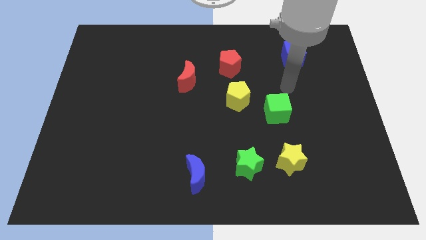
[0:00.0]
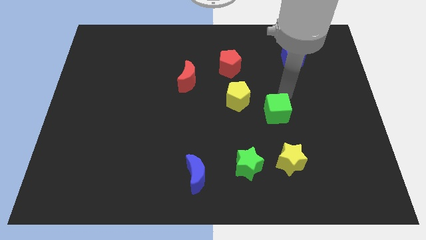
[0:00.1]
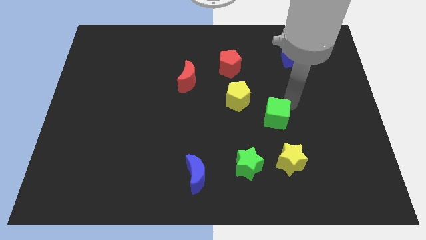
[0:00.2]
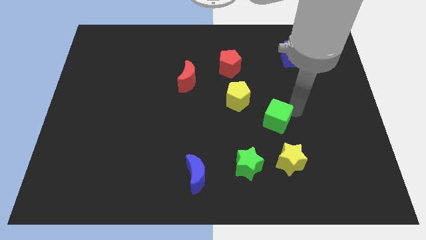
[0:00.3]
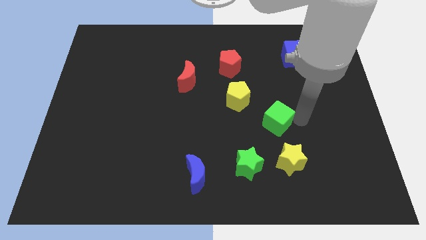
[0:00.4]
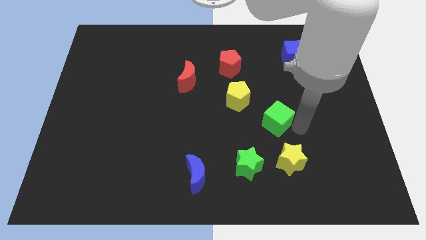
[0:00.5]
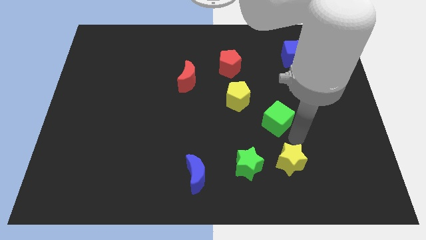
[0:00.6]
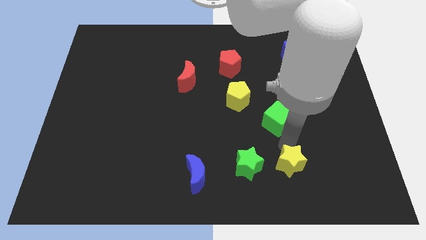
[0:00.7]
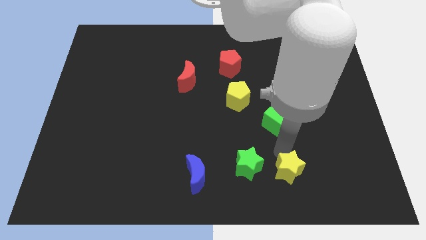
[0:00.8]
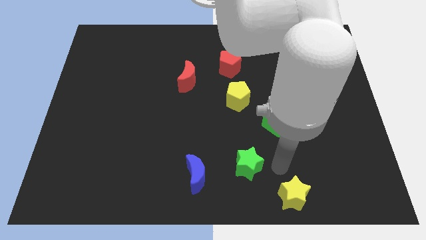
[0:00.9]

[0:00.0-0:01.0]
pull the green star apart from the yellow star

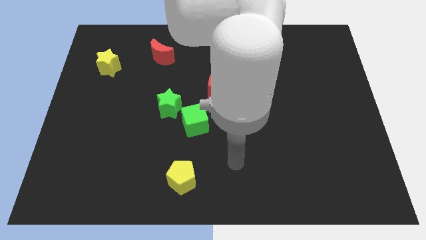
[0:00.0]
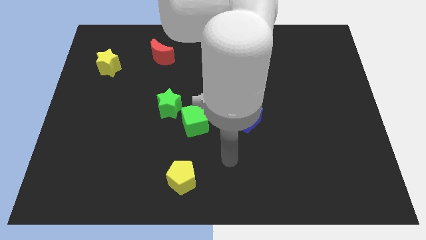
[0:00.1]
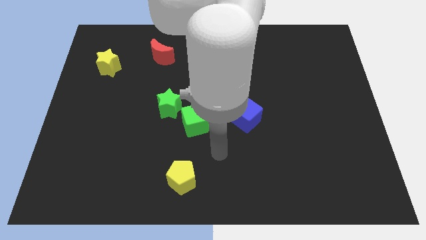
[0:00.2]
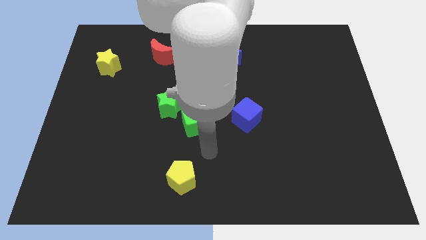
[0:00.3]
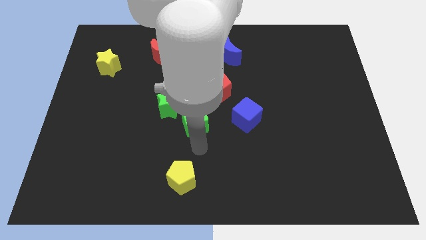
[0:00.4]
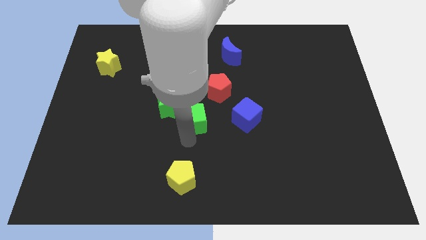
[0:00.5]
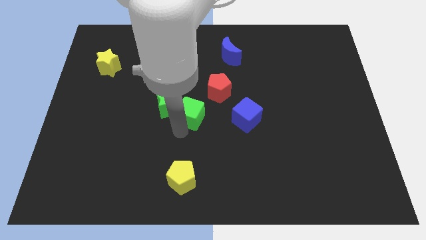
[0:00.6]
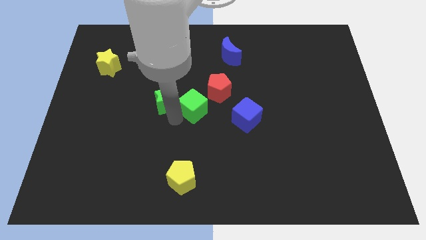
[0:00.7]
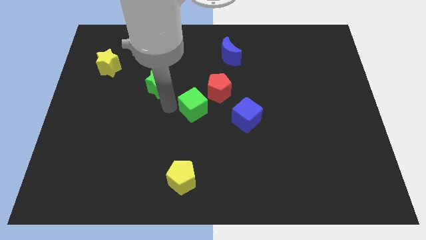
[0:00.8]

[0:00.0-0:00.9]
move the green cube away from the green star

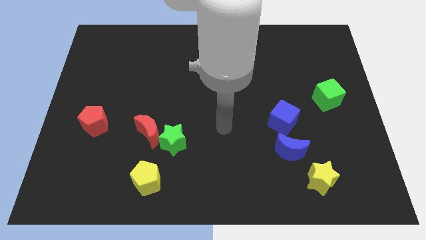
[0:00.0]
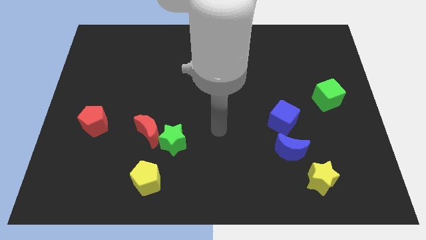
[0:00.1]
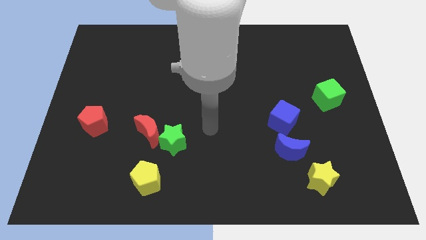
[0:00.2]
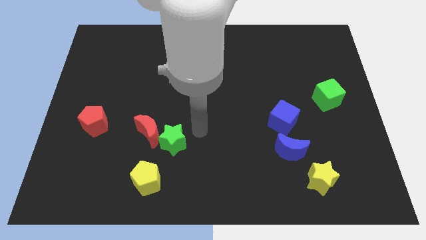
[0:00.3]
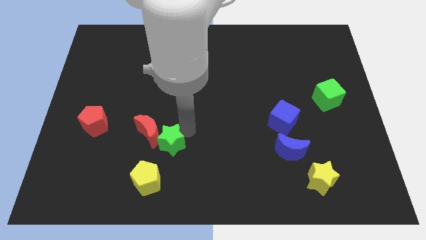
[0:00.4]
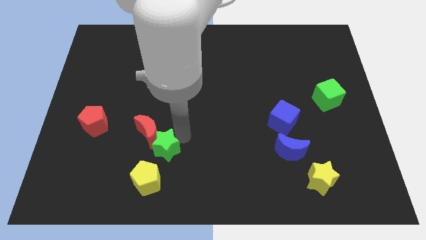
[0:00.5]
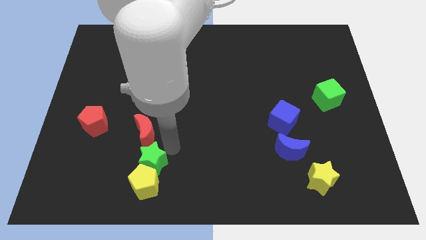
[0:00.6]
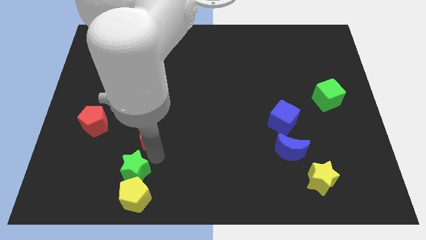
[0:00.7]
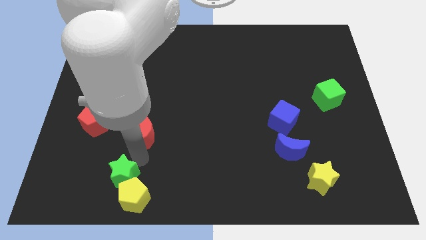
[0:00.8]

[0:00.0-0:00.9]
move the red moon away from the green star

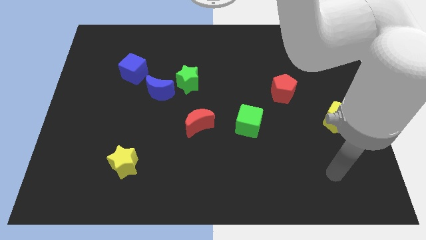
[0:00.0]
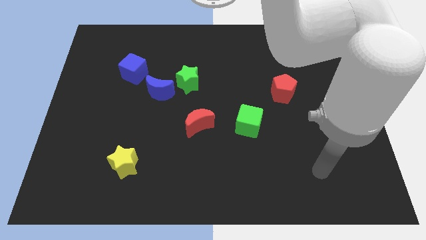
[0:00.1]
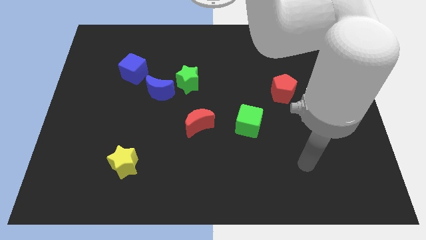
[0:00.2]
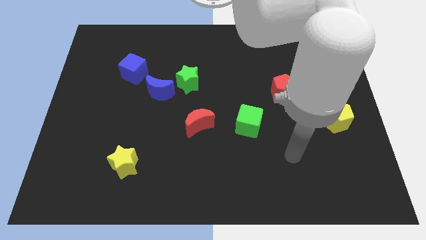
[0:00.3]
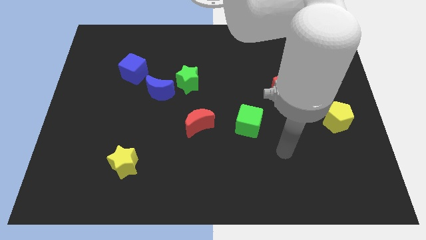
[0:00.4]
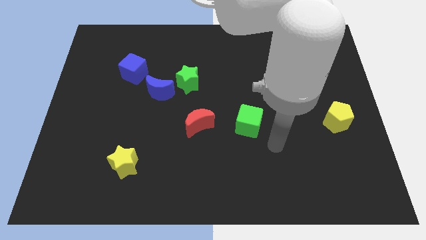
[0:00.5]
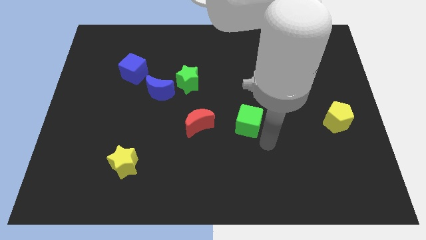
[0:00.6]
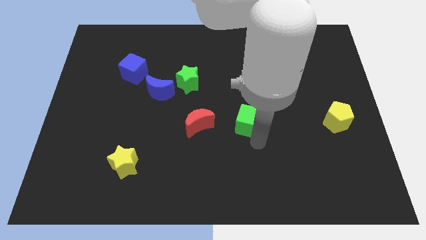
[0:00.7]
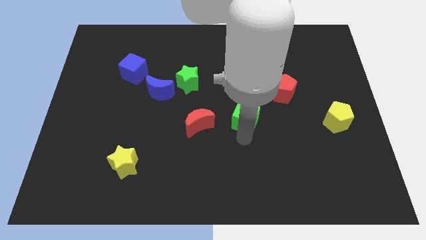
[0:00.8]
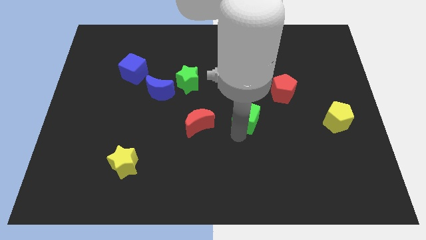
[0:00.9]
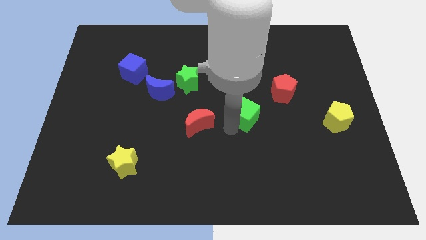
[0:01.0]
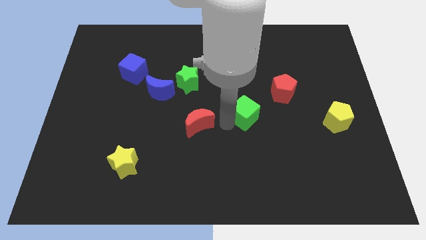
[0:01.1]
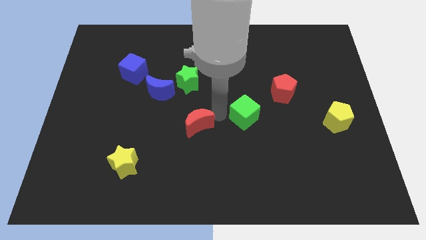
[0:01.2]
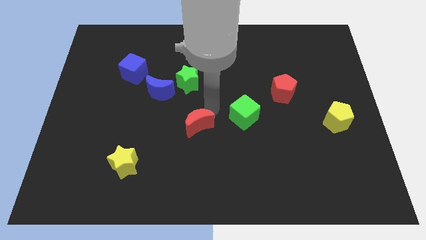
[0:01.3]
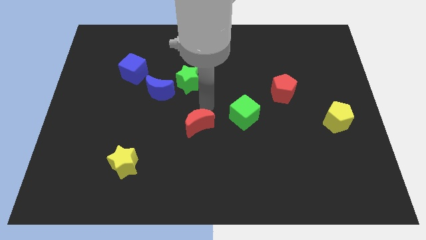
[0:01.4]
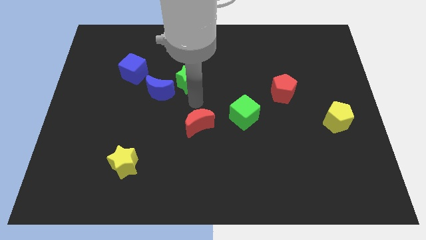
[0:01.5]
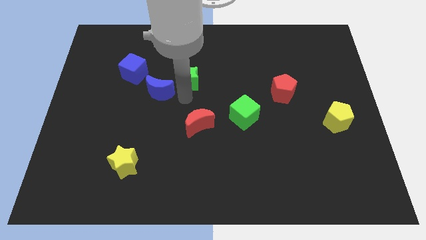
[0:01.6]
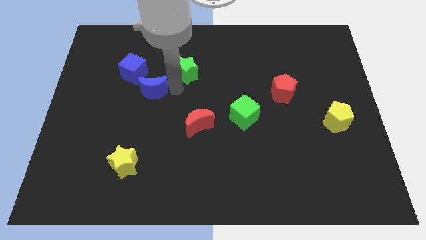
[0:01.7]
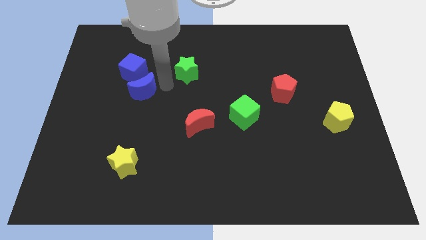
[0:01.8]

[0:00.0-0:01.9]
separate the green star from the blue moon

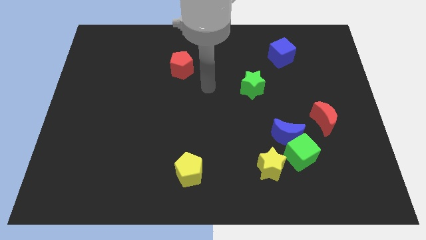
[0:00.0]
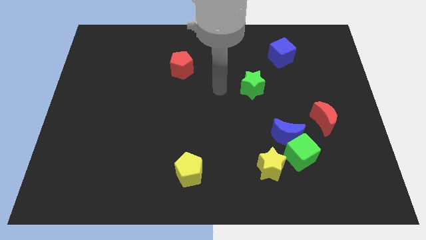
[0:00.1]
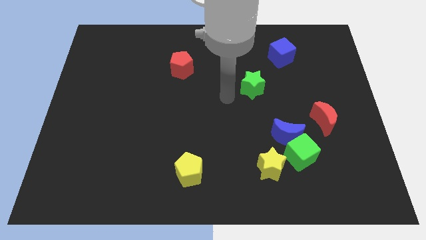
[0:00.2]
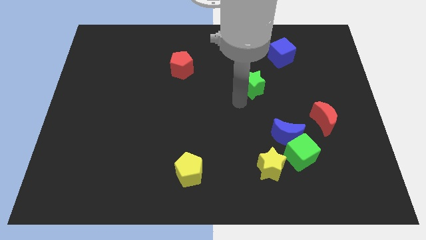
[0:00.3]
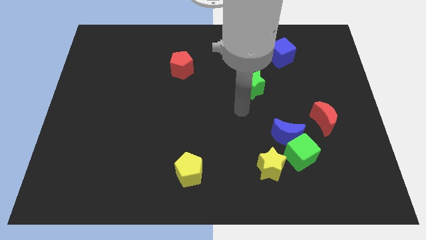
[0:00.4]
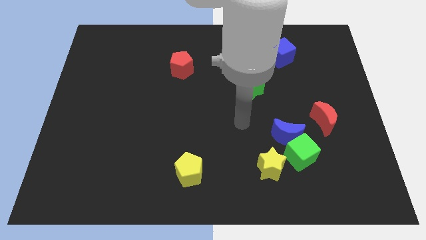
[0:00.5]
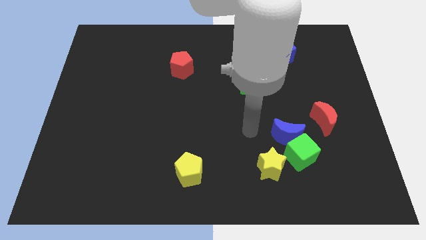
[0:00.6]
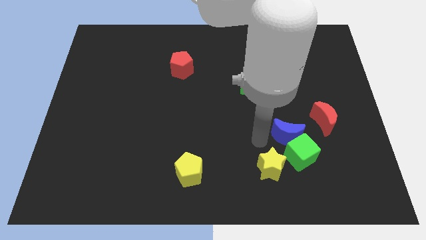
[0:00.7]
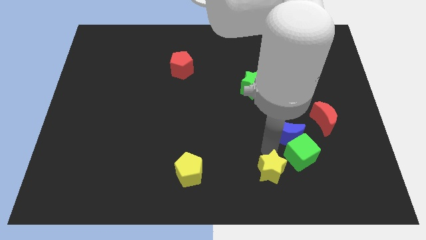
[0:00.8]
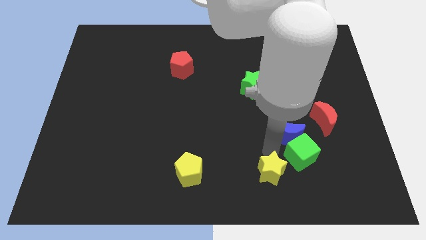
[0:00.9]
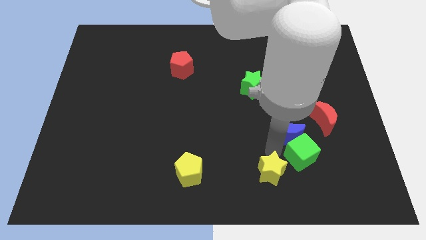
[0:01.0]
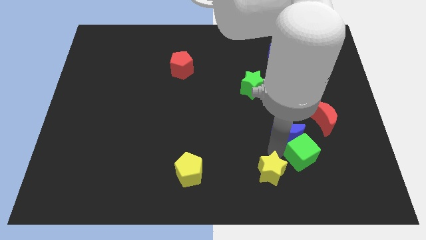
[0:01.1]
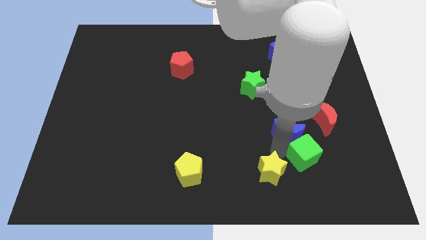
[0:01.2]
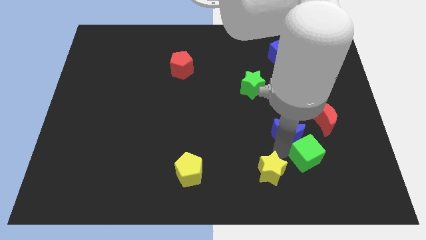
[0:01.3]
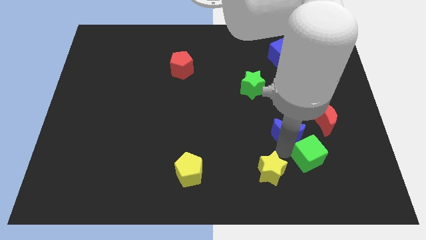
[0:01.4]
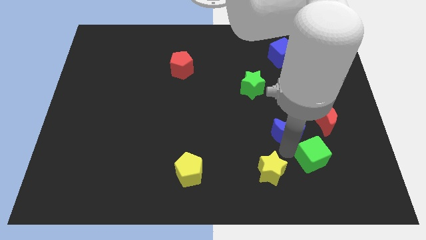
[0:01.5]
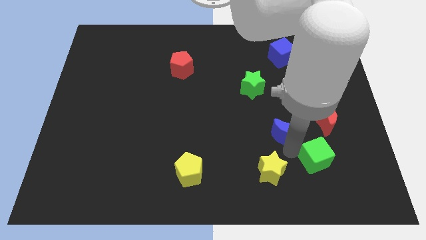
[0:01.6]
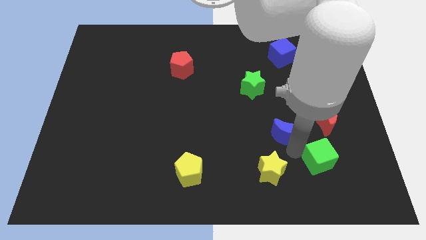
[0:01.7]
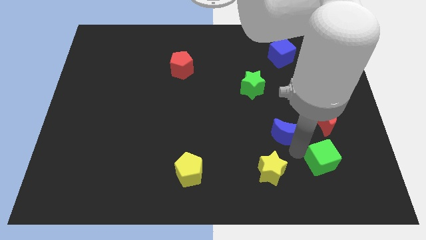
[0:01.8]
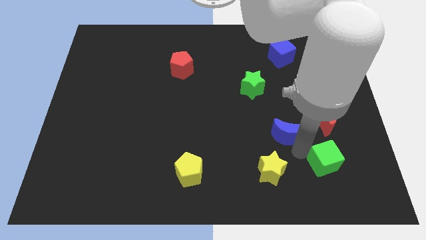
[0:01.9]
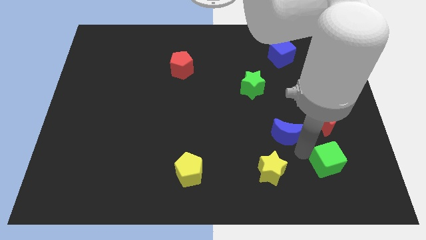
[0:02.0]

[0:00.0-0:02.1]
pull the green cube apart from the blue moon and yellow star

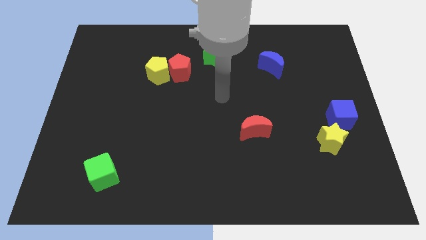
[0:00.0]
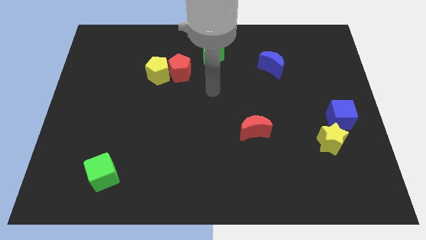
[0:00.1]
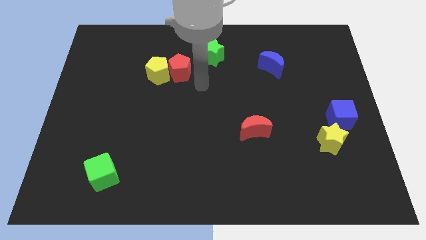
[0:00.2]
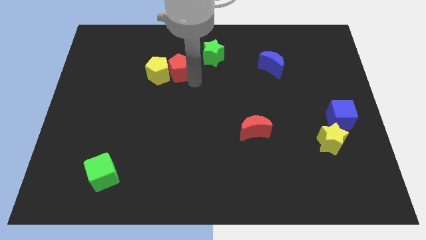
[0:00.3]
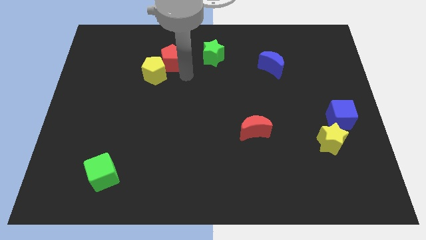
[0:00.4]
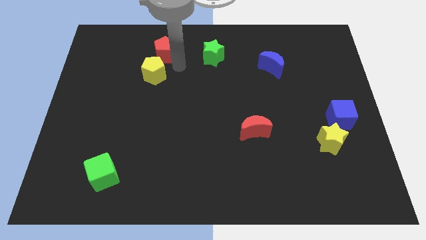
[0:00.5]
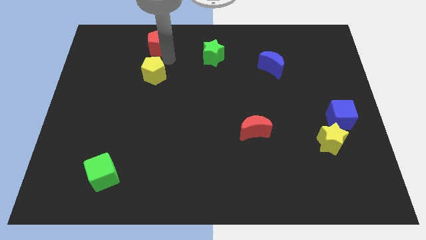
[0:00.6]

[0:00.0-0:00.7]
move the yellow pentagon away from the red pentagon

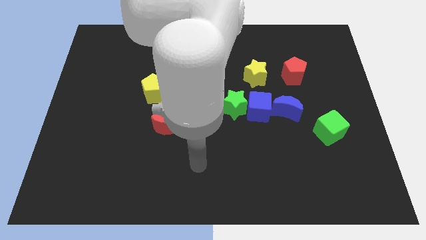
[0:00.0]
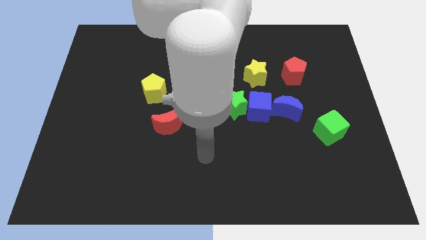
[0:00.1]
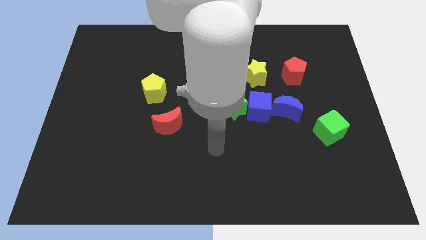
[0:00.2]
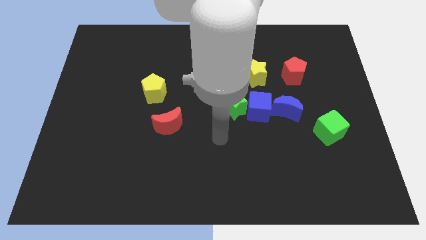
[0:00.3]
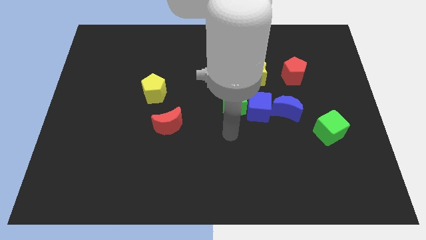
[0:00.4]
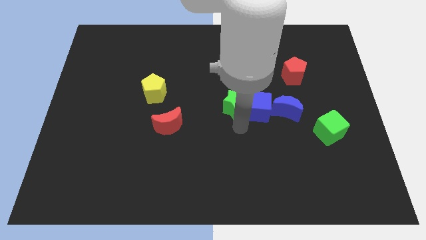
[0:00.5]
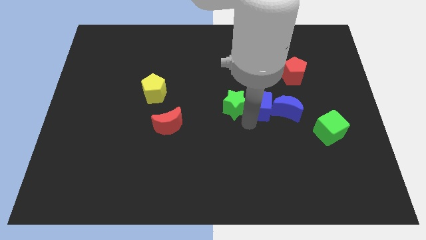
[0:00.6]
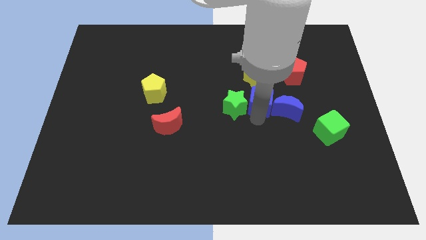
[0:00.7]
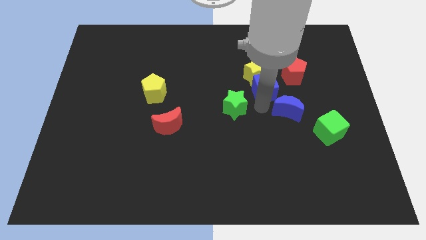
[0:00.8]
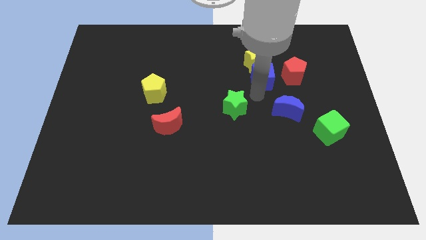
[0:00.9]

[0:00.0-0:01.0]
pull the green star apart from the blue cube

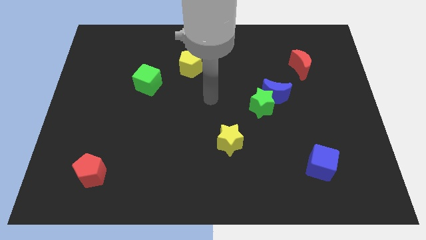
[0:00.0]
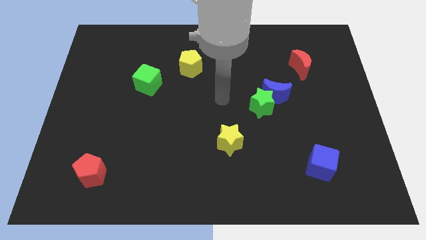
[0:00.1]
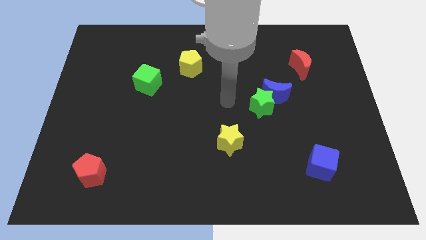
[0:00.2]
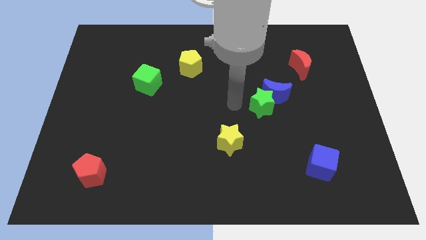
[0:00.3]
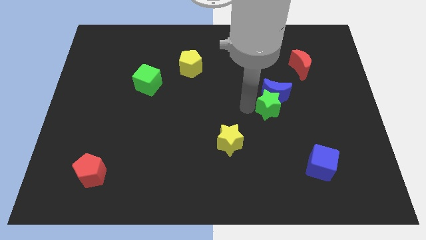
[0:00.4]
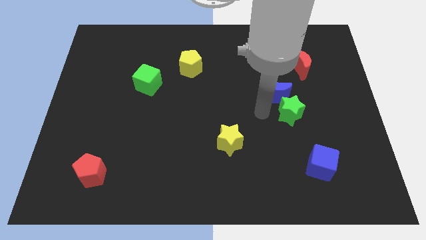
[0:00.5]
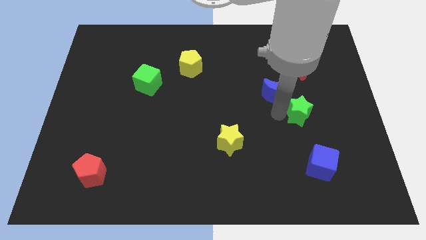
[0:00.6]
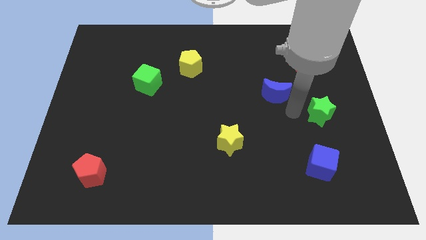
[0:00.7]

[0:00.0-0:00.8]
pull the blue moon apart from the green star

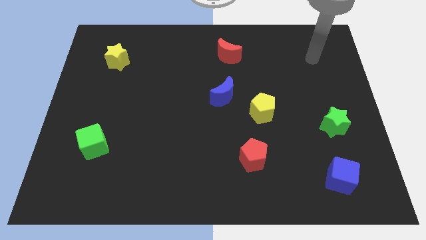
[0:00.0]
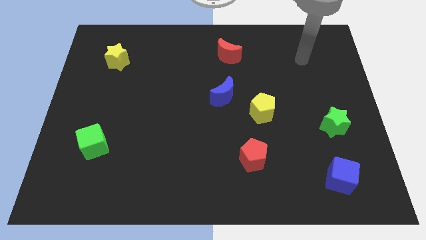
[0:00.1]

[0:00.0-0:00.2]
move the blue moon away from the yellow pentagon
